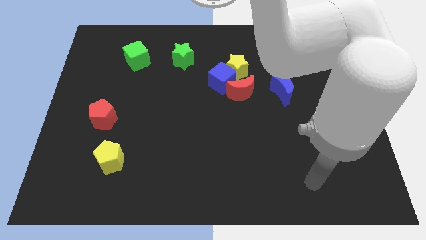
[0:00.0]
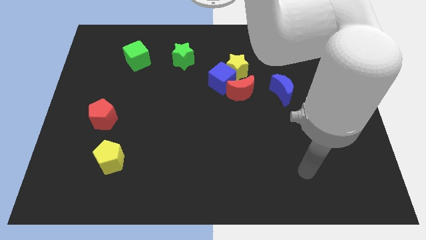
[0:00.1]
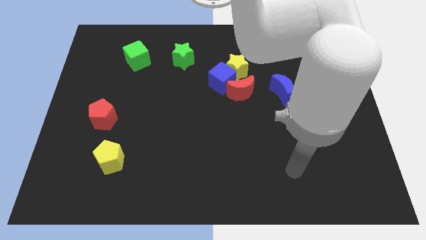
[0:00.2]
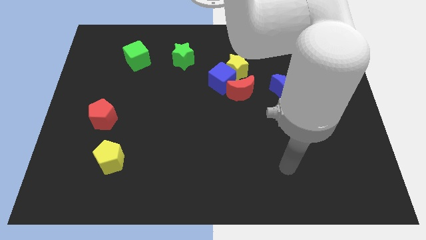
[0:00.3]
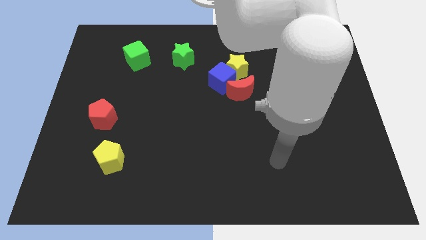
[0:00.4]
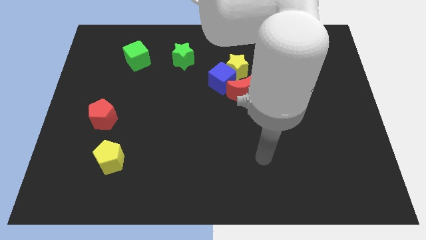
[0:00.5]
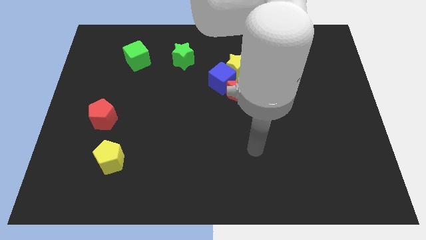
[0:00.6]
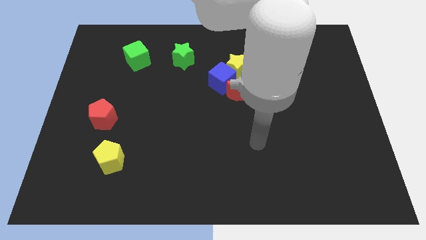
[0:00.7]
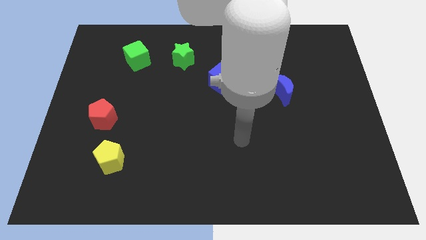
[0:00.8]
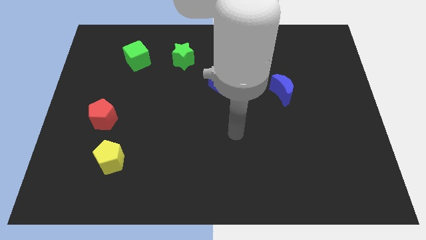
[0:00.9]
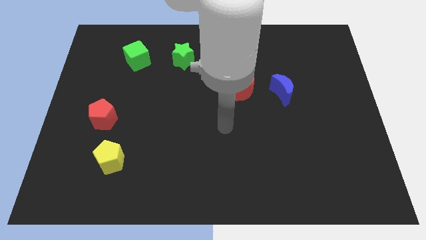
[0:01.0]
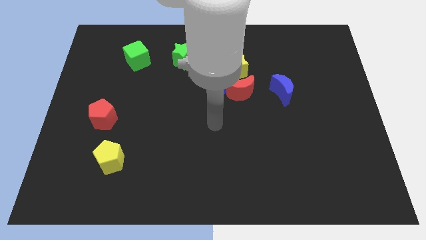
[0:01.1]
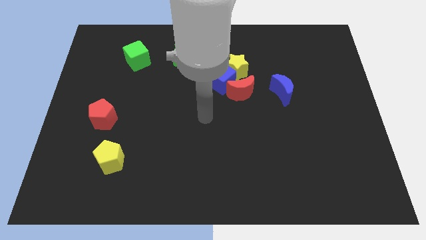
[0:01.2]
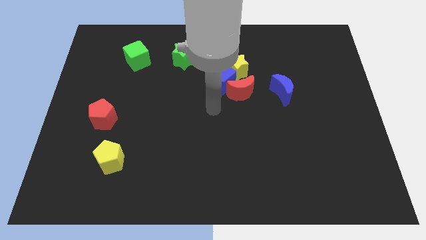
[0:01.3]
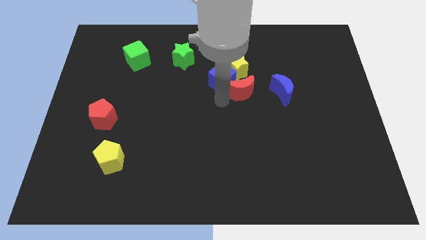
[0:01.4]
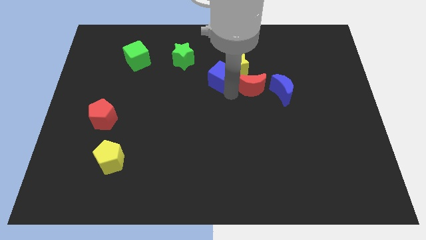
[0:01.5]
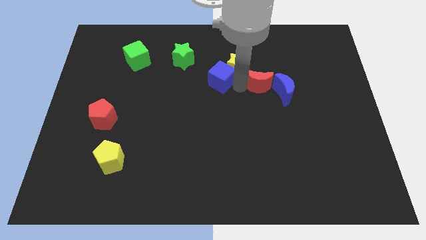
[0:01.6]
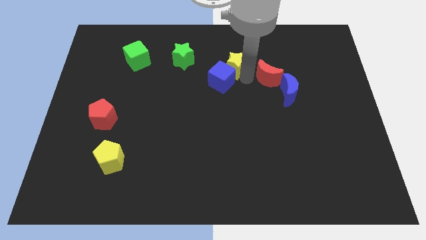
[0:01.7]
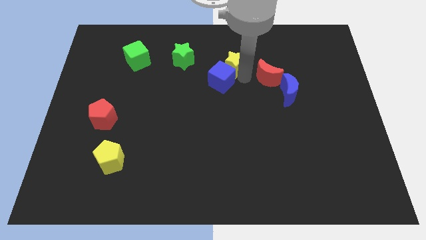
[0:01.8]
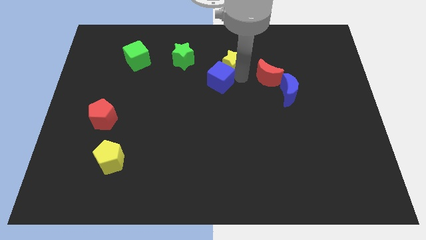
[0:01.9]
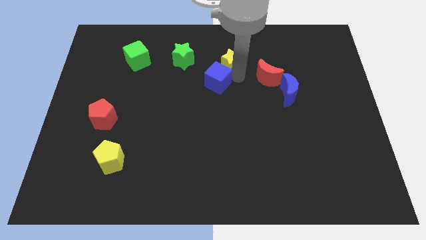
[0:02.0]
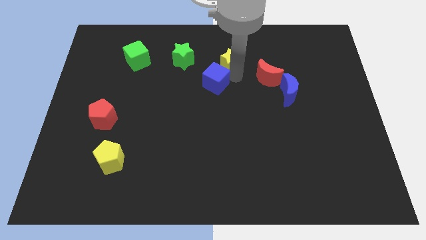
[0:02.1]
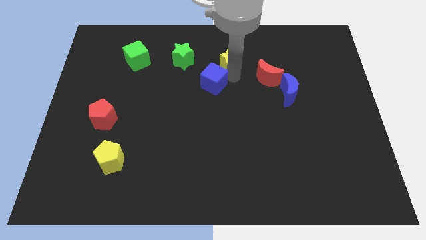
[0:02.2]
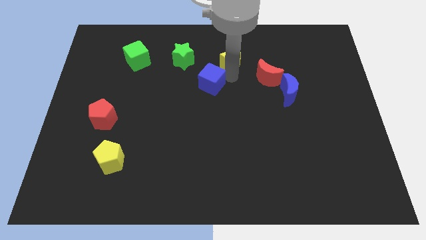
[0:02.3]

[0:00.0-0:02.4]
pull the blue cube apart from the yellow star and red moon

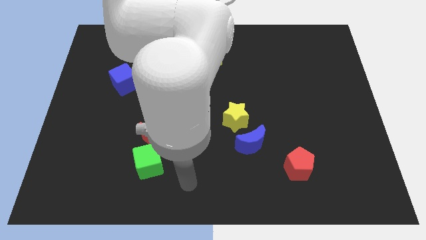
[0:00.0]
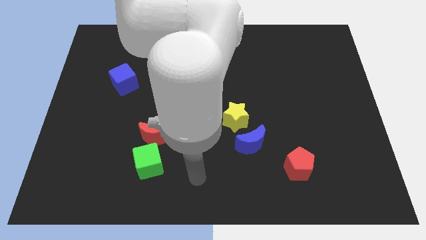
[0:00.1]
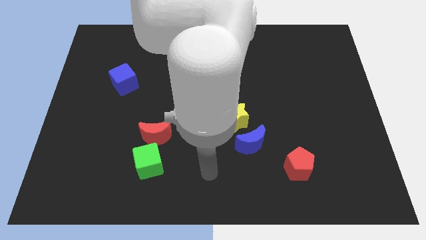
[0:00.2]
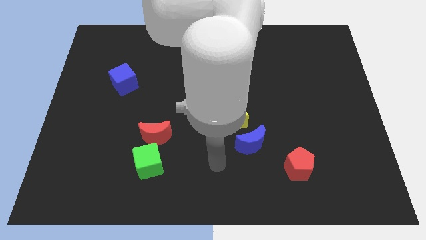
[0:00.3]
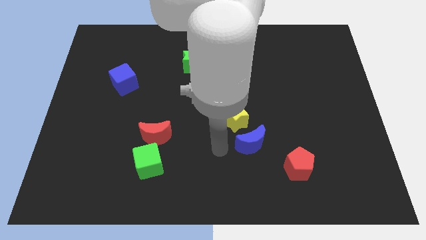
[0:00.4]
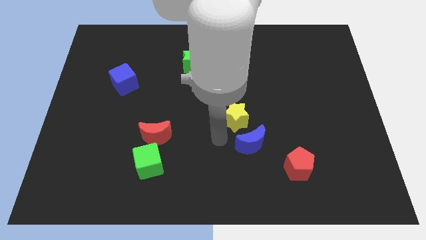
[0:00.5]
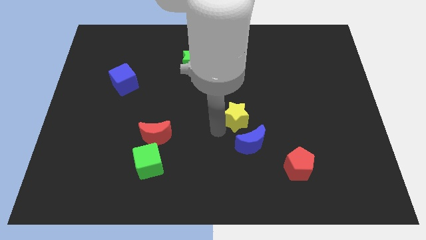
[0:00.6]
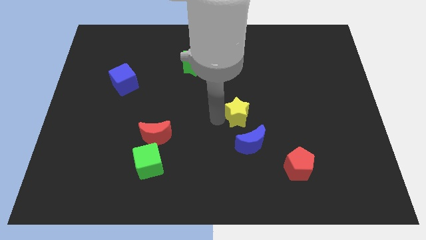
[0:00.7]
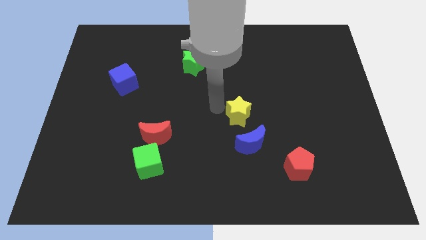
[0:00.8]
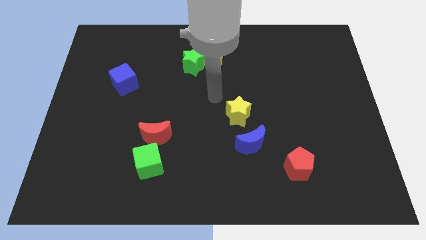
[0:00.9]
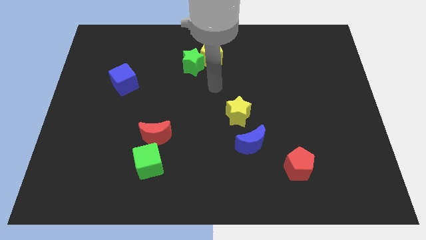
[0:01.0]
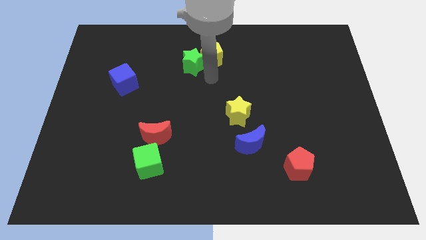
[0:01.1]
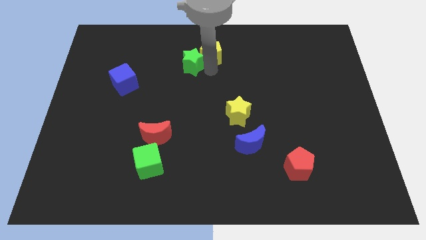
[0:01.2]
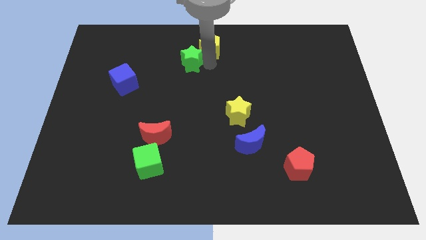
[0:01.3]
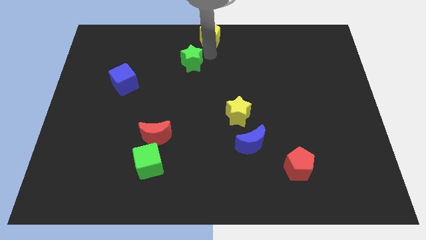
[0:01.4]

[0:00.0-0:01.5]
pull the green star apart from the yellow pentagon

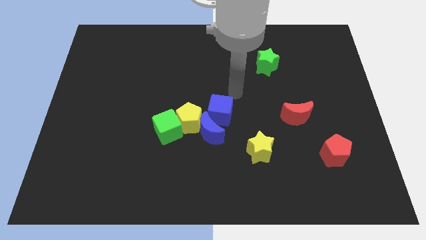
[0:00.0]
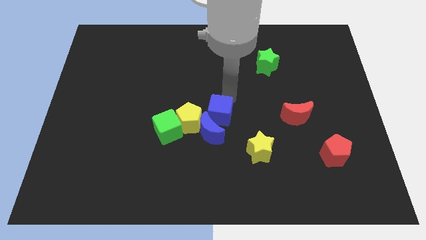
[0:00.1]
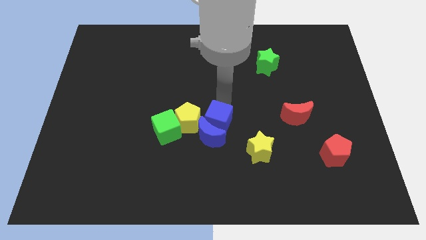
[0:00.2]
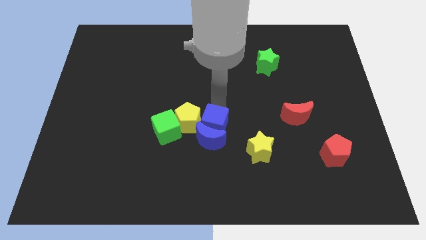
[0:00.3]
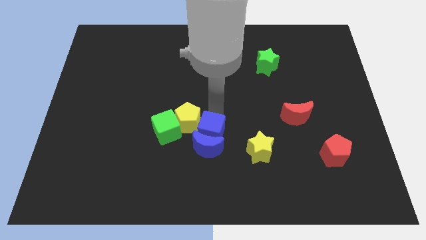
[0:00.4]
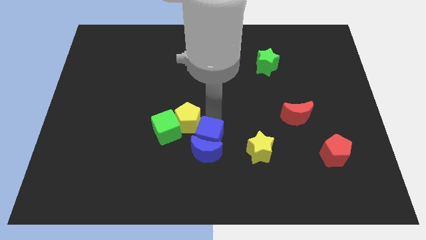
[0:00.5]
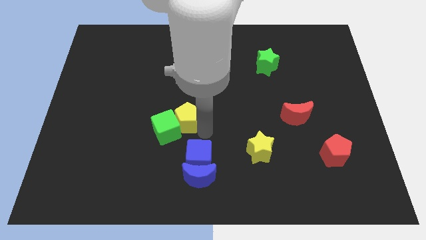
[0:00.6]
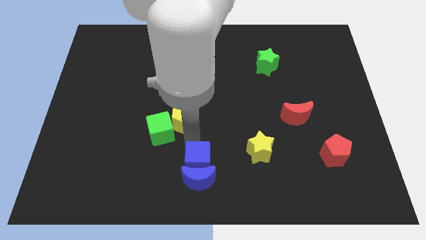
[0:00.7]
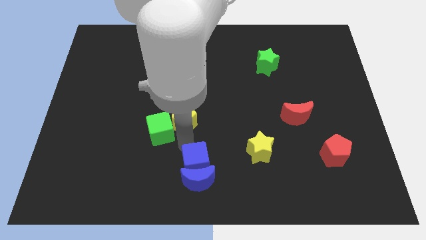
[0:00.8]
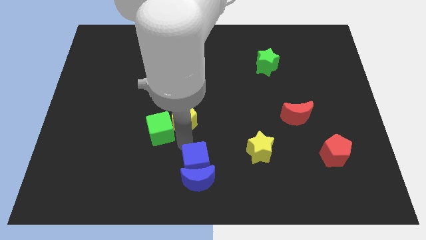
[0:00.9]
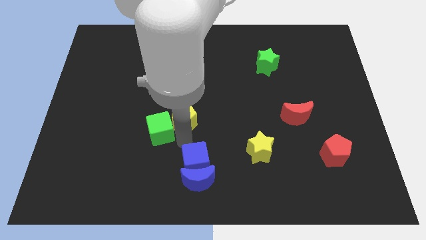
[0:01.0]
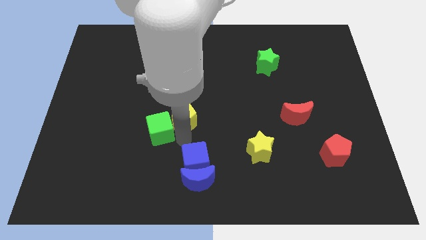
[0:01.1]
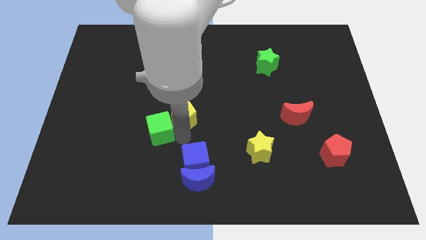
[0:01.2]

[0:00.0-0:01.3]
pull the yellow pentagon apart from the clump

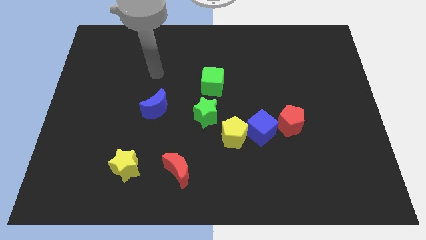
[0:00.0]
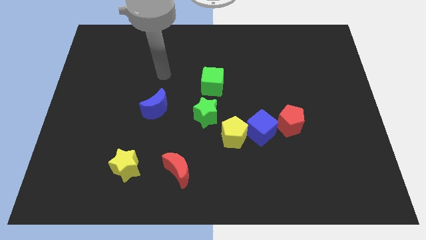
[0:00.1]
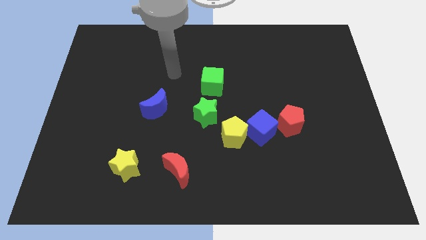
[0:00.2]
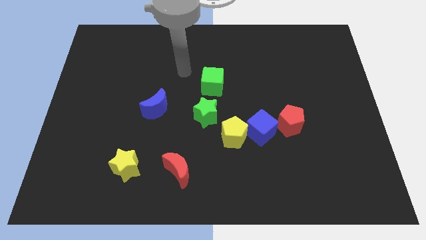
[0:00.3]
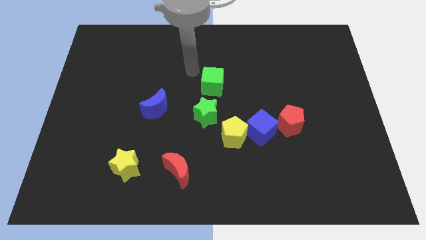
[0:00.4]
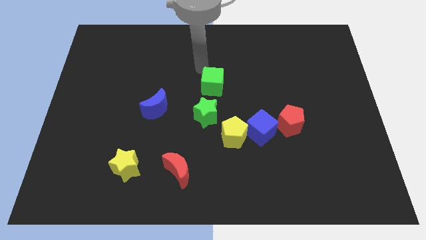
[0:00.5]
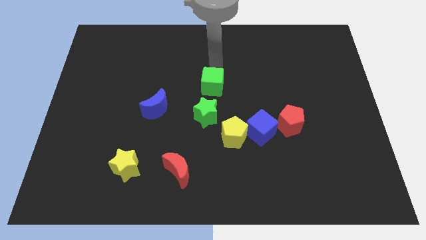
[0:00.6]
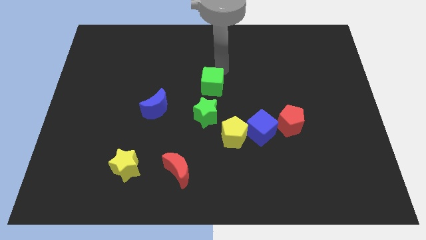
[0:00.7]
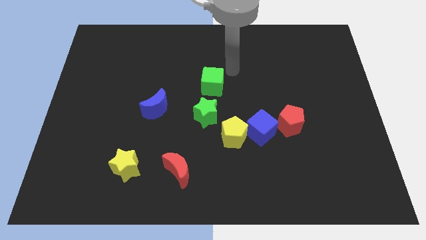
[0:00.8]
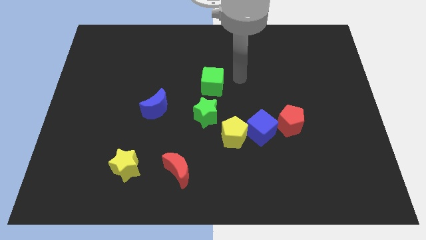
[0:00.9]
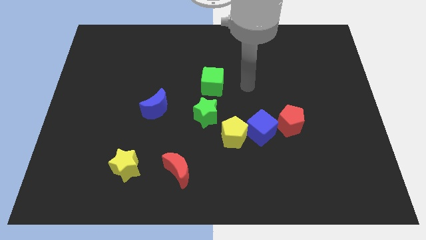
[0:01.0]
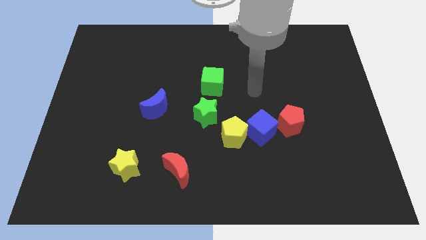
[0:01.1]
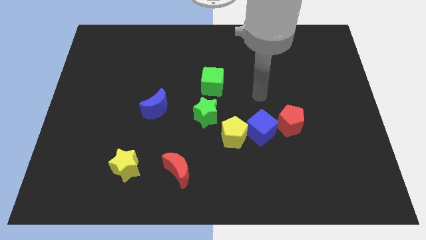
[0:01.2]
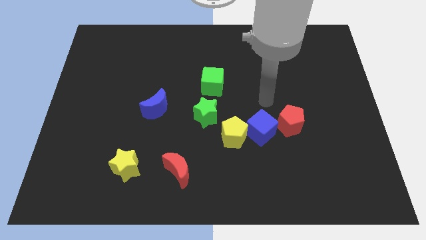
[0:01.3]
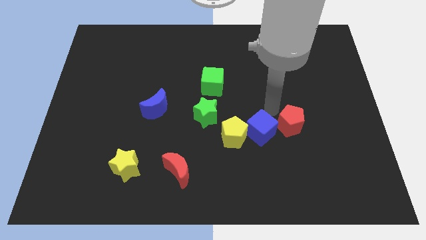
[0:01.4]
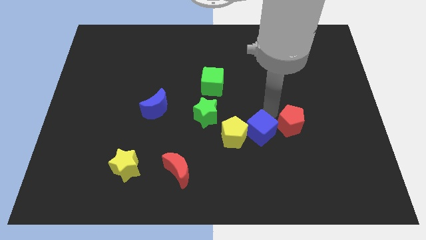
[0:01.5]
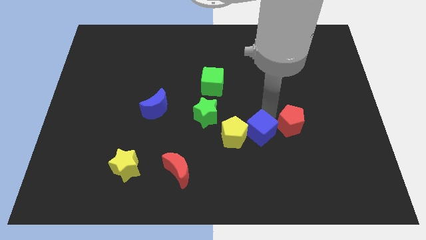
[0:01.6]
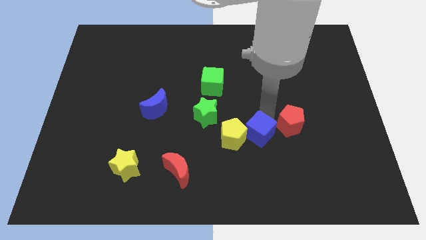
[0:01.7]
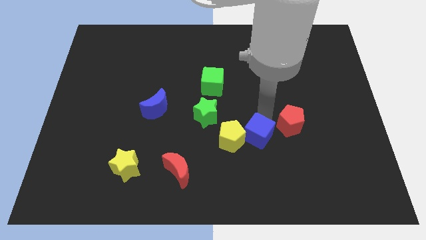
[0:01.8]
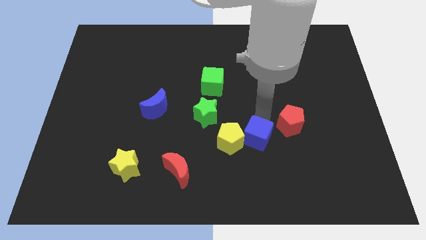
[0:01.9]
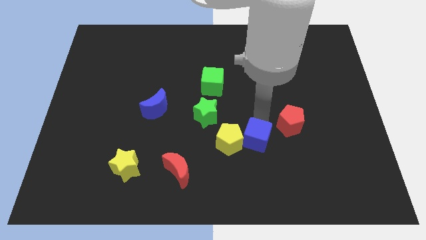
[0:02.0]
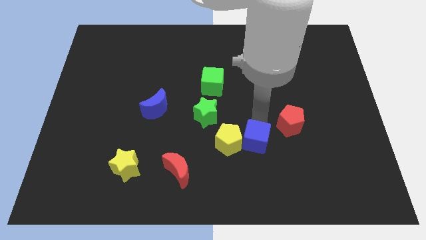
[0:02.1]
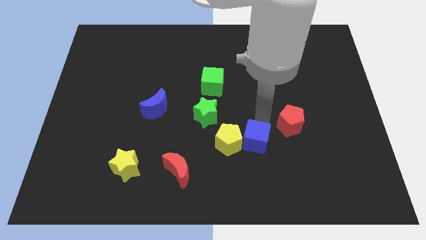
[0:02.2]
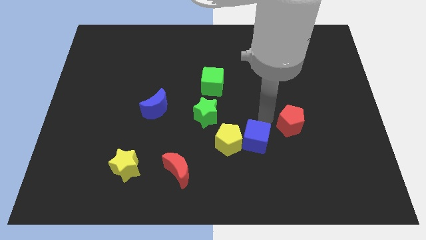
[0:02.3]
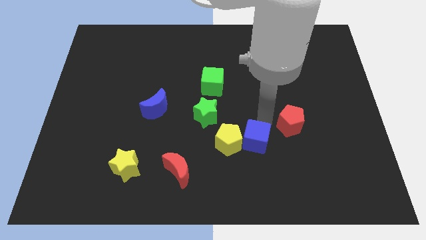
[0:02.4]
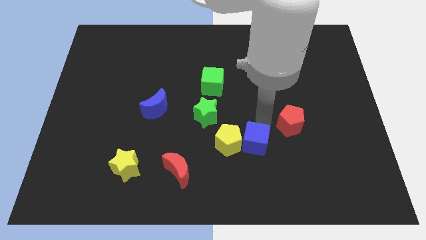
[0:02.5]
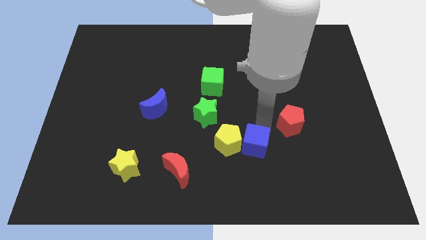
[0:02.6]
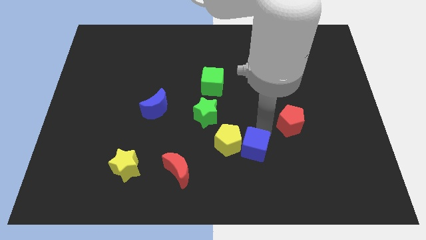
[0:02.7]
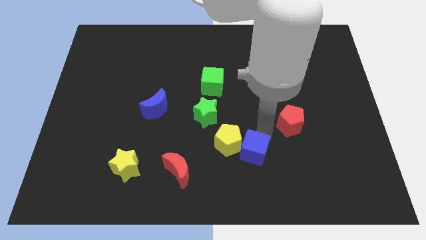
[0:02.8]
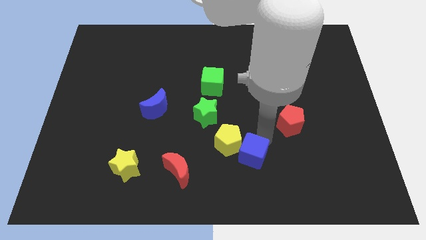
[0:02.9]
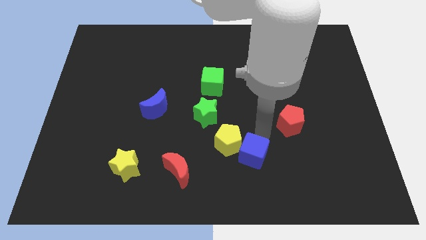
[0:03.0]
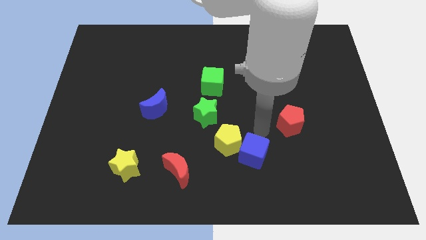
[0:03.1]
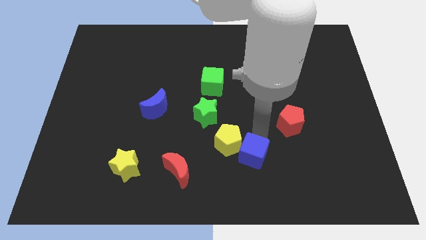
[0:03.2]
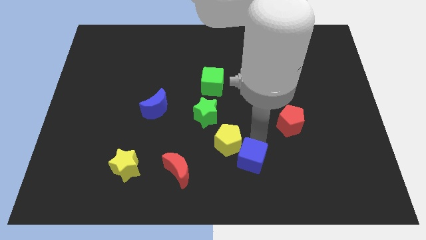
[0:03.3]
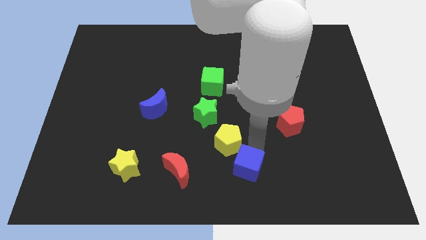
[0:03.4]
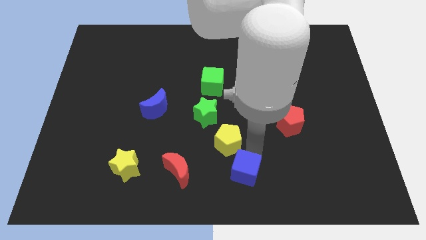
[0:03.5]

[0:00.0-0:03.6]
move the blue cube away from the yellow pentagon and red pentagon

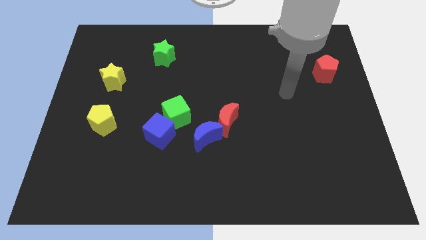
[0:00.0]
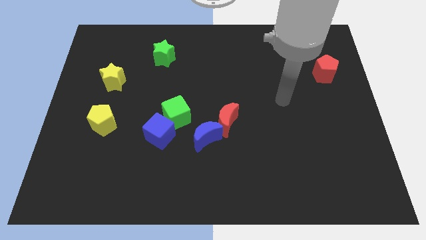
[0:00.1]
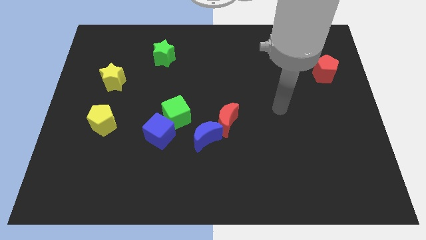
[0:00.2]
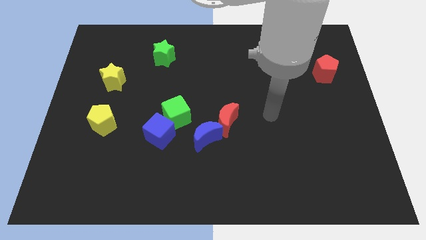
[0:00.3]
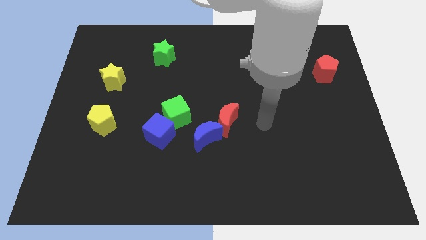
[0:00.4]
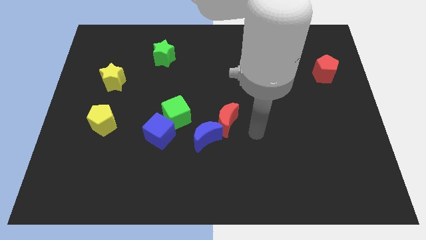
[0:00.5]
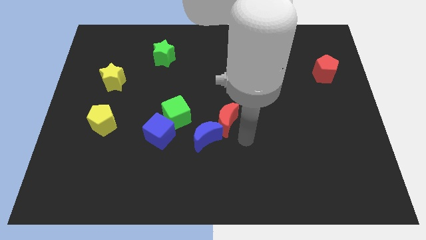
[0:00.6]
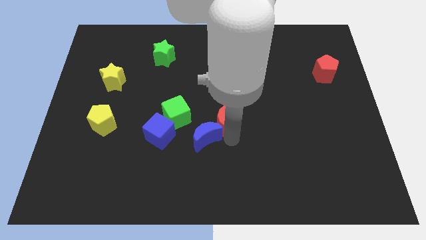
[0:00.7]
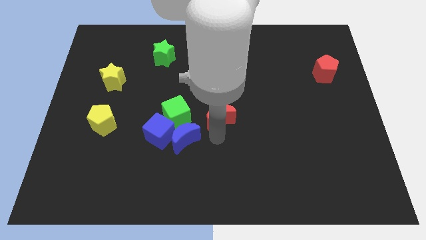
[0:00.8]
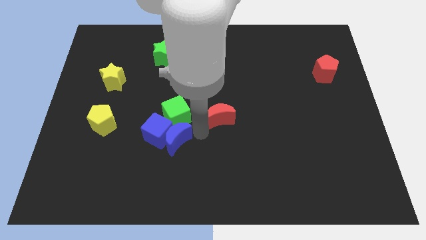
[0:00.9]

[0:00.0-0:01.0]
separate the red moon from the blue moon
